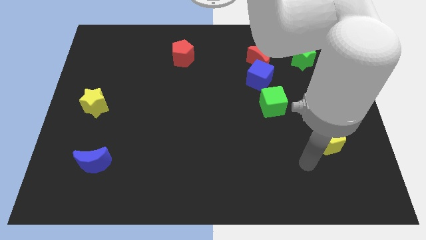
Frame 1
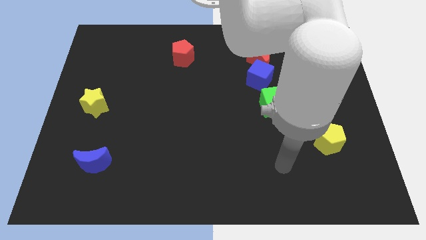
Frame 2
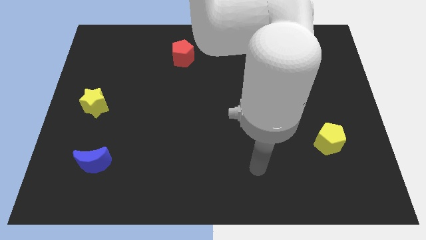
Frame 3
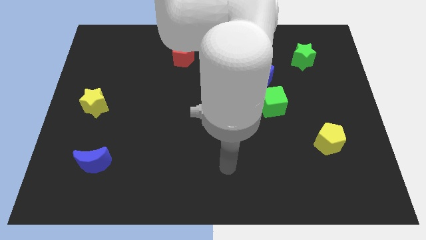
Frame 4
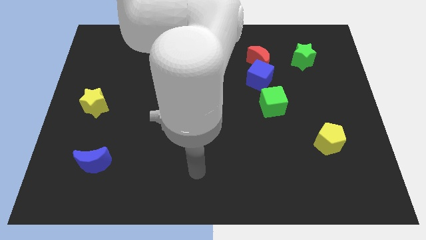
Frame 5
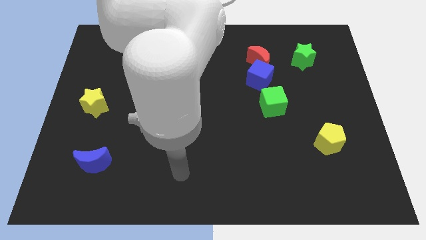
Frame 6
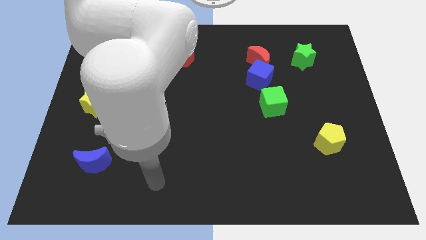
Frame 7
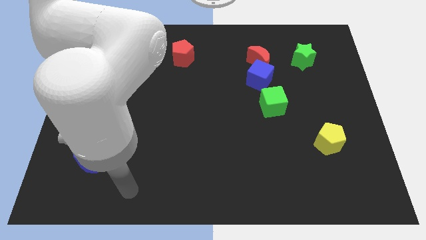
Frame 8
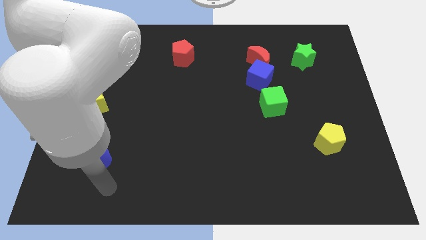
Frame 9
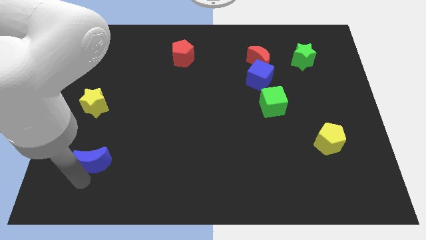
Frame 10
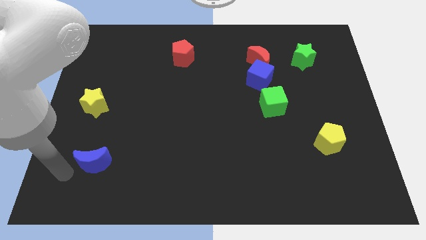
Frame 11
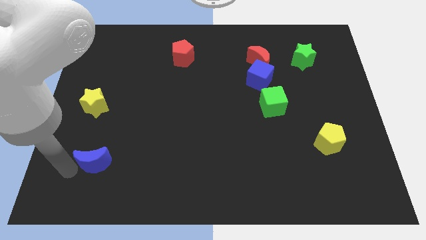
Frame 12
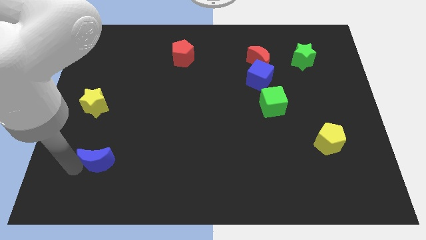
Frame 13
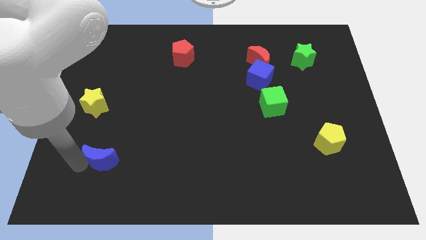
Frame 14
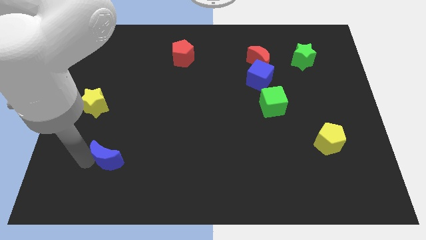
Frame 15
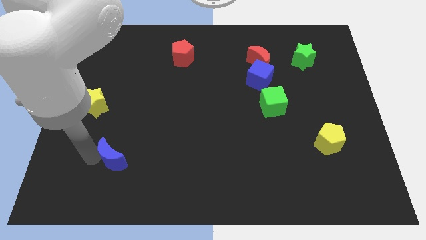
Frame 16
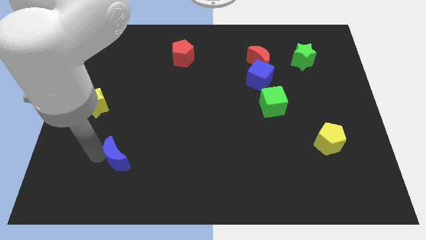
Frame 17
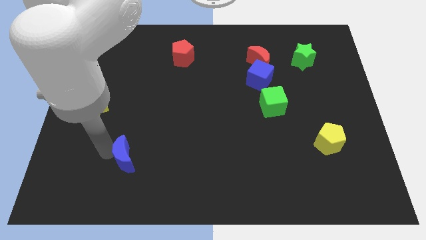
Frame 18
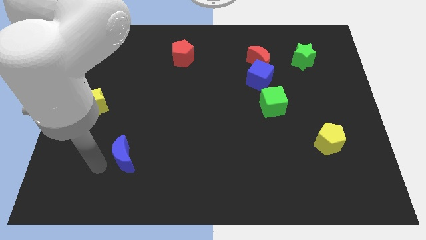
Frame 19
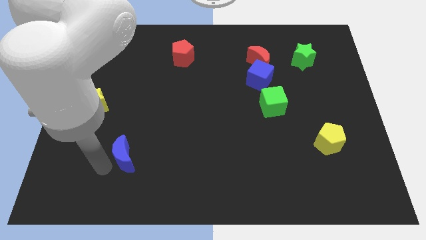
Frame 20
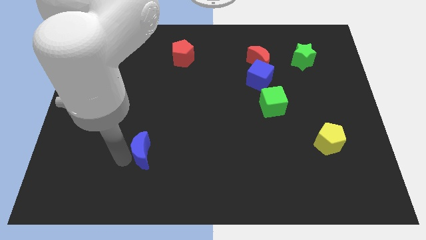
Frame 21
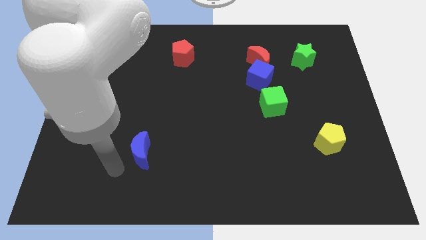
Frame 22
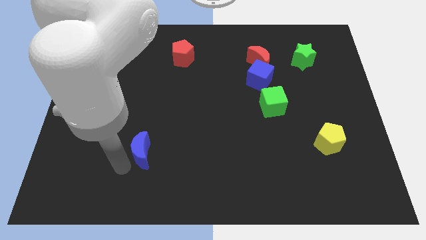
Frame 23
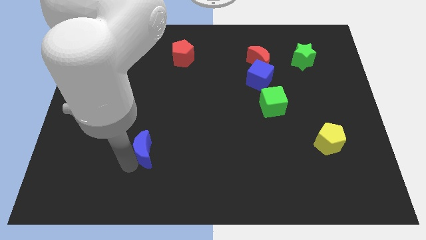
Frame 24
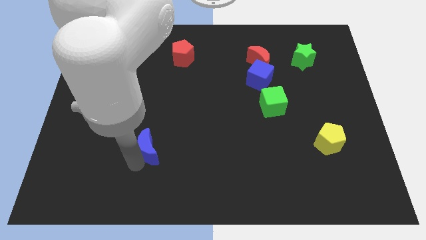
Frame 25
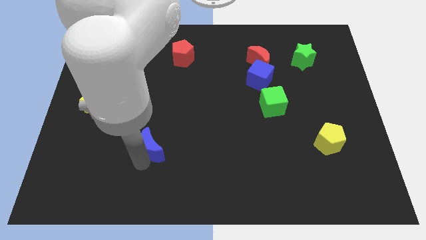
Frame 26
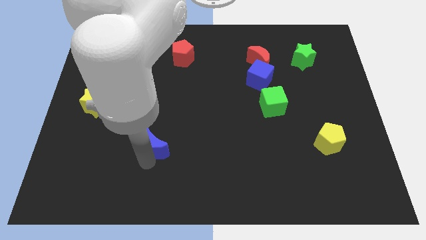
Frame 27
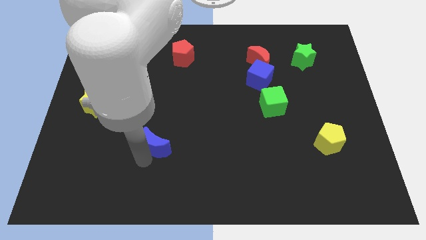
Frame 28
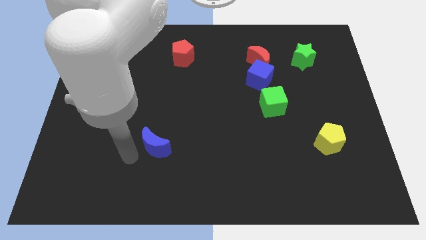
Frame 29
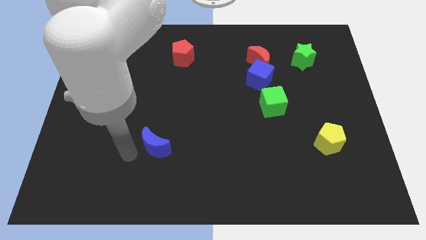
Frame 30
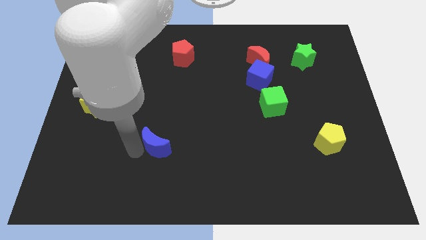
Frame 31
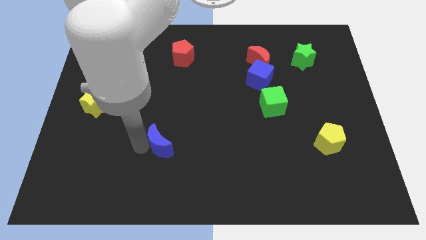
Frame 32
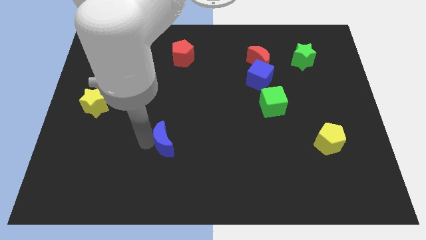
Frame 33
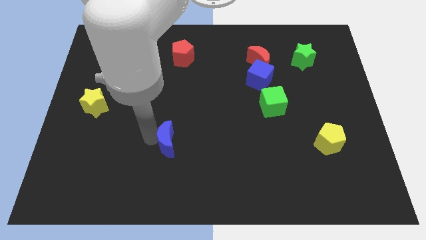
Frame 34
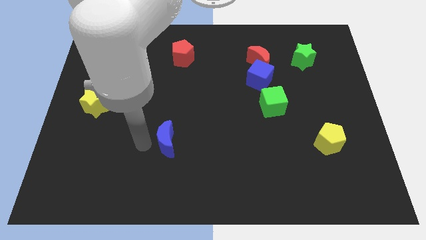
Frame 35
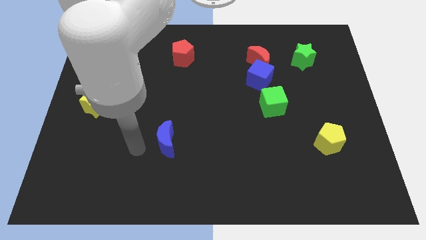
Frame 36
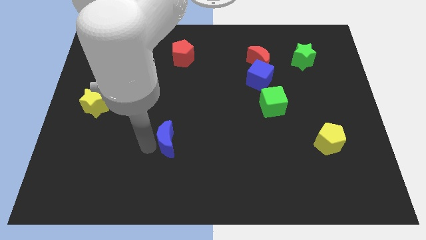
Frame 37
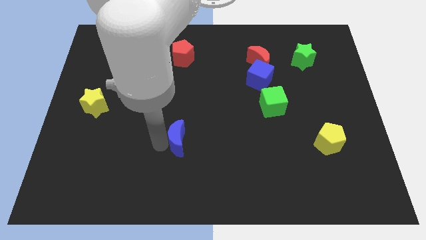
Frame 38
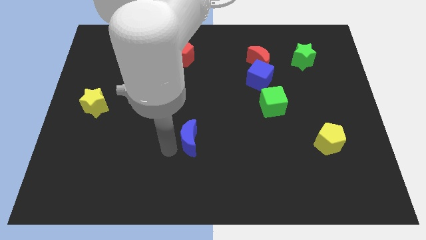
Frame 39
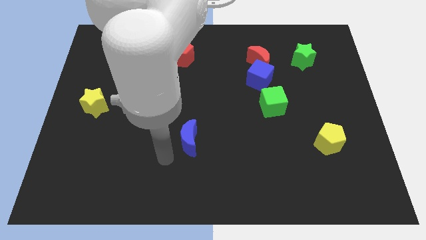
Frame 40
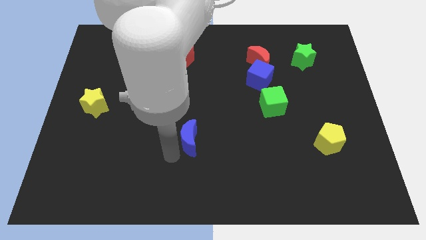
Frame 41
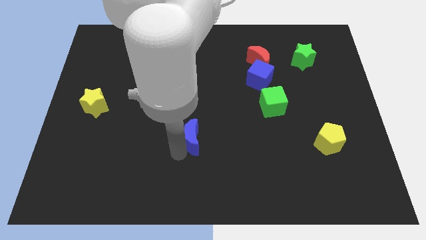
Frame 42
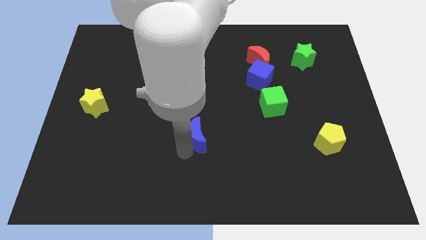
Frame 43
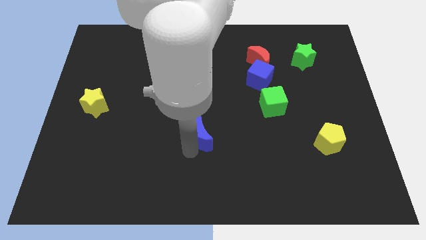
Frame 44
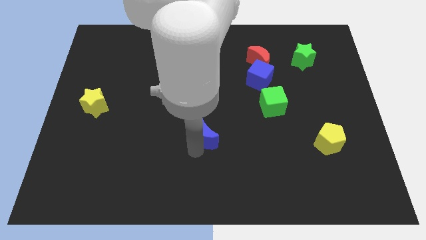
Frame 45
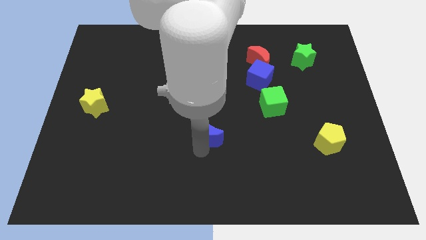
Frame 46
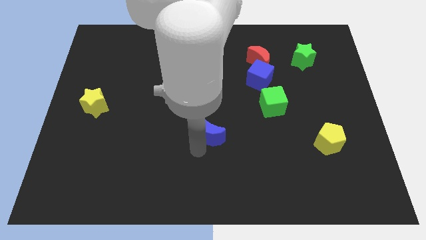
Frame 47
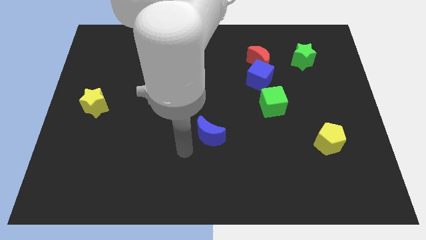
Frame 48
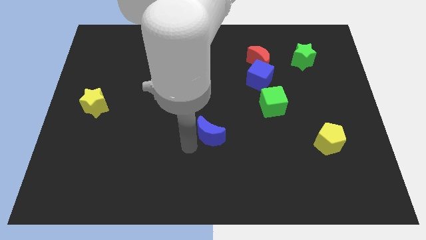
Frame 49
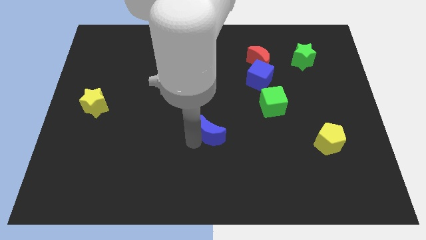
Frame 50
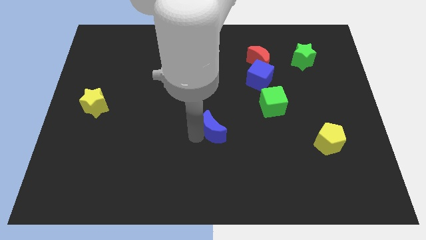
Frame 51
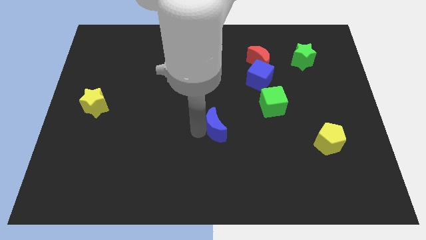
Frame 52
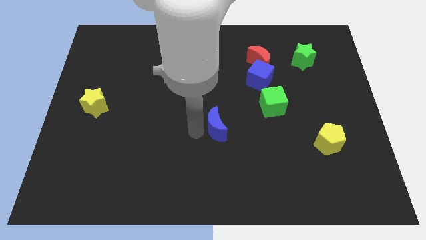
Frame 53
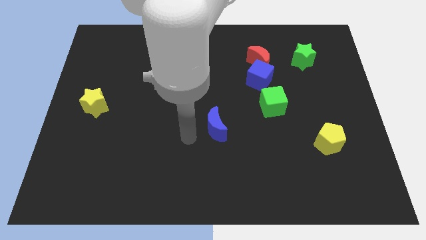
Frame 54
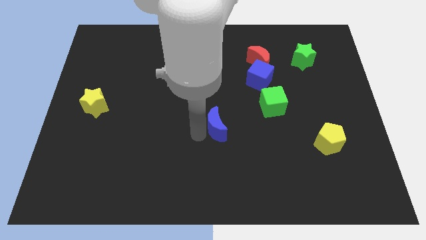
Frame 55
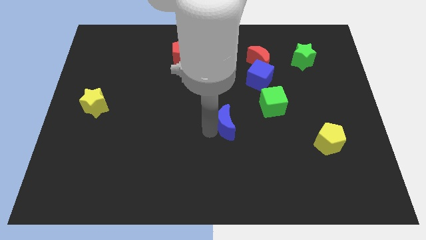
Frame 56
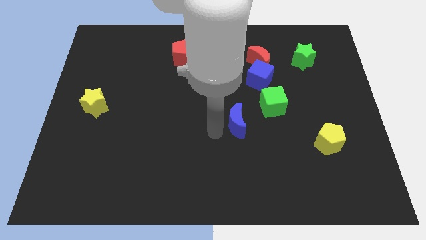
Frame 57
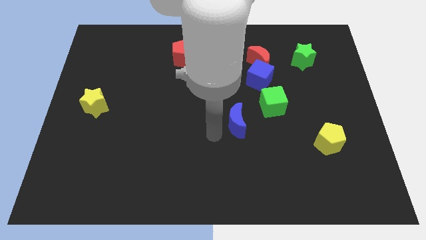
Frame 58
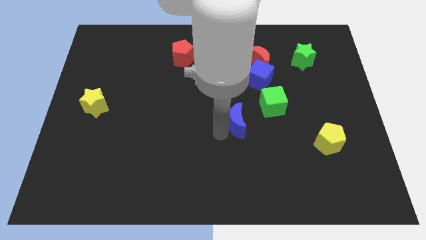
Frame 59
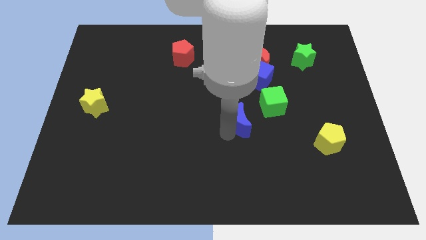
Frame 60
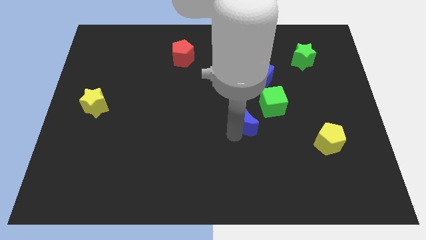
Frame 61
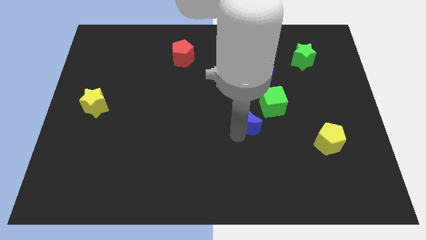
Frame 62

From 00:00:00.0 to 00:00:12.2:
move the blue moon to the bottom side of the blue cube

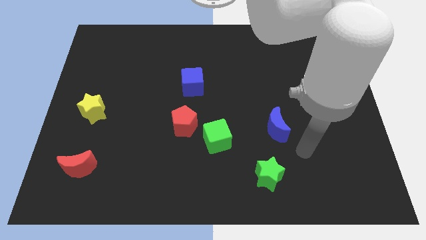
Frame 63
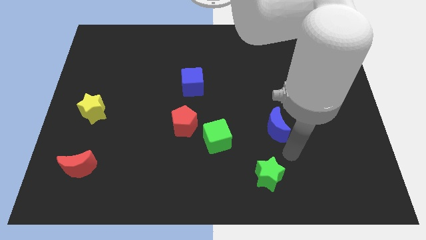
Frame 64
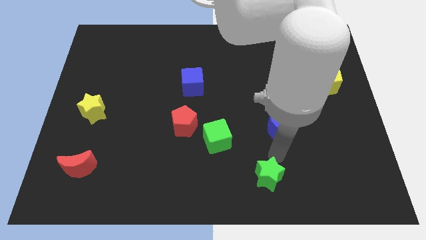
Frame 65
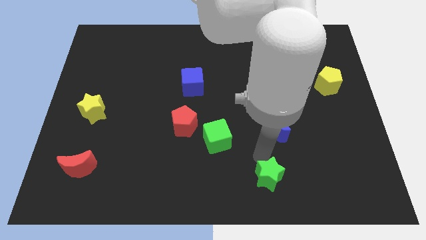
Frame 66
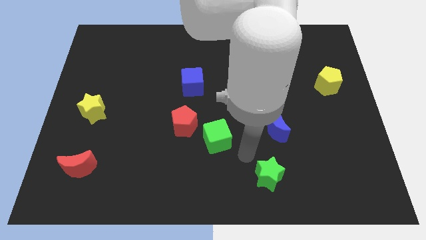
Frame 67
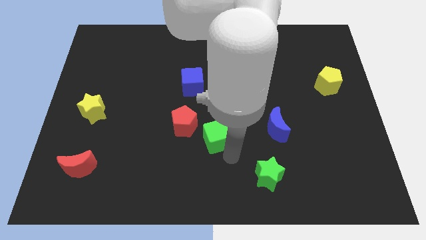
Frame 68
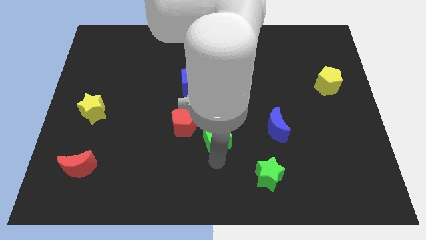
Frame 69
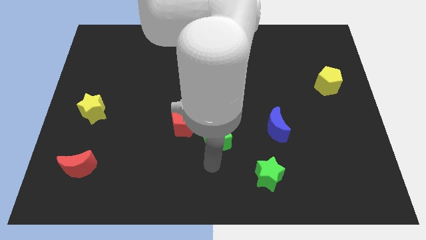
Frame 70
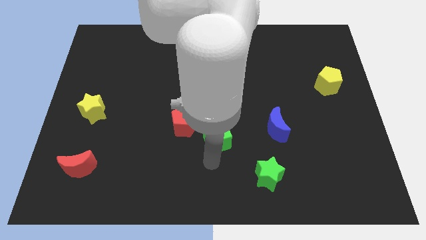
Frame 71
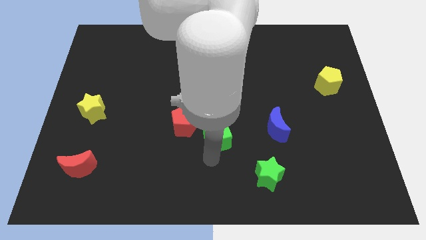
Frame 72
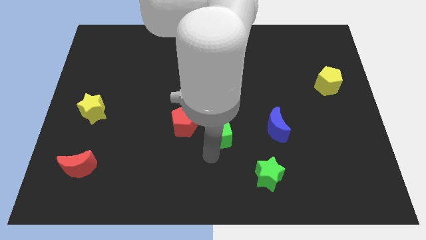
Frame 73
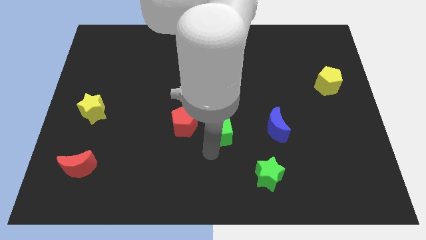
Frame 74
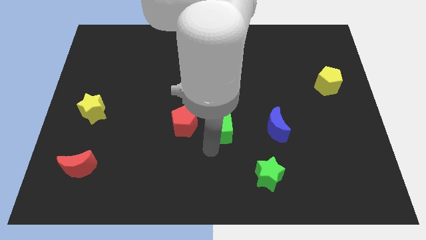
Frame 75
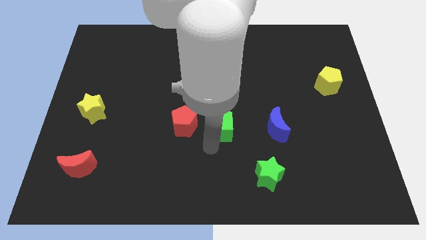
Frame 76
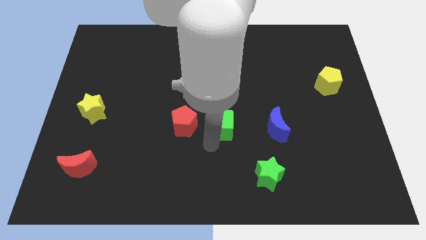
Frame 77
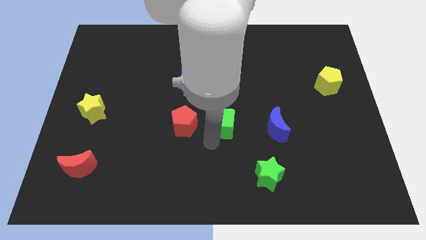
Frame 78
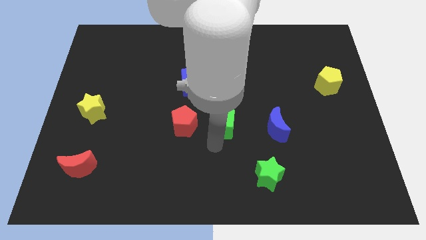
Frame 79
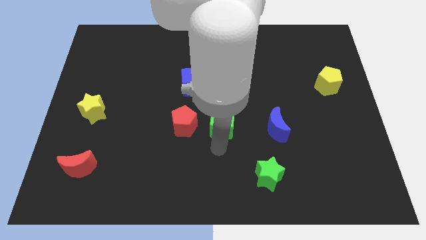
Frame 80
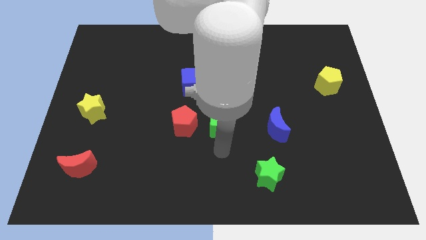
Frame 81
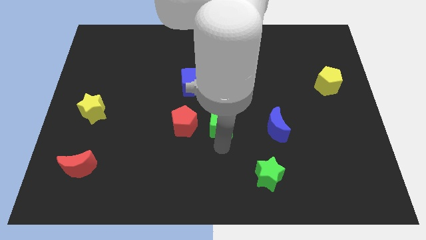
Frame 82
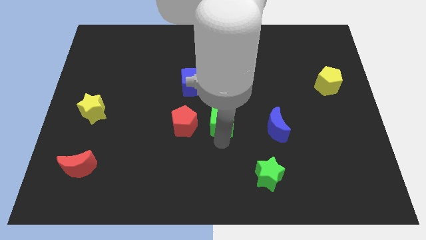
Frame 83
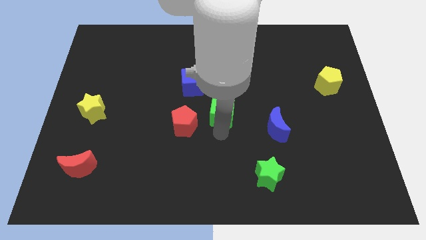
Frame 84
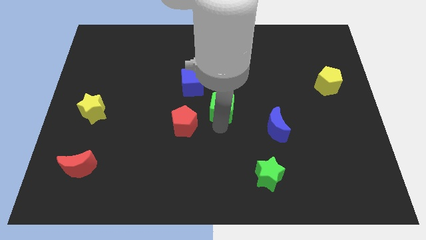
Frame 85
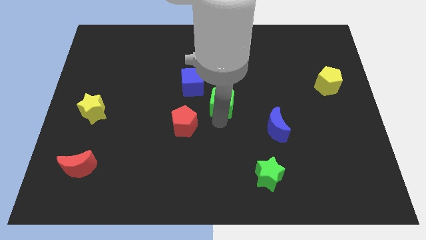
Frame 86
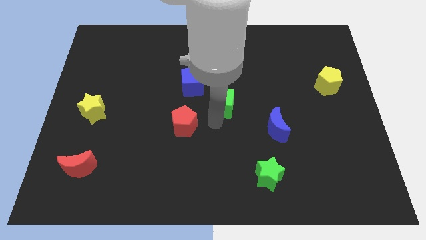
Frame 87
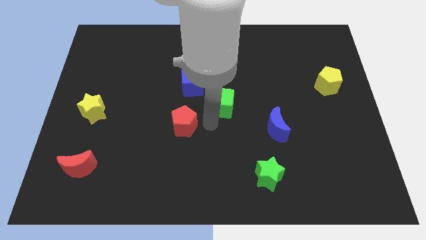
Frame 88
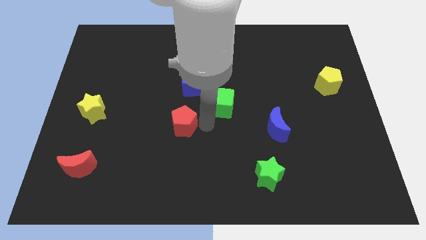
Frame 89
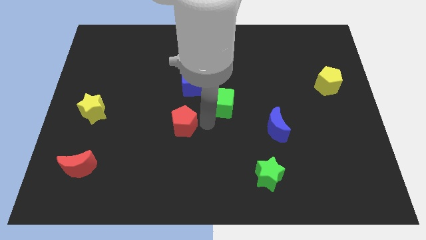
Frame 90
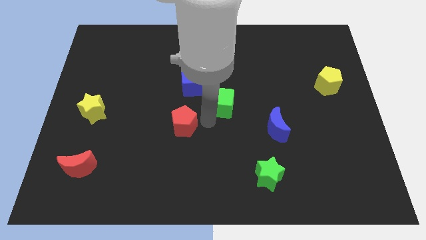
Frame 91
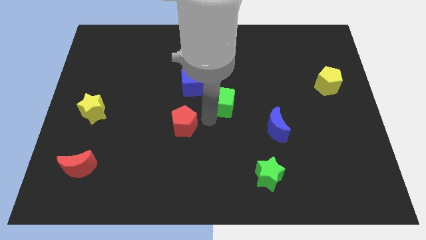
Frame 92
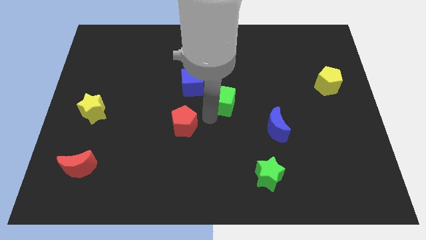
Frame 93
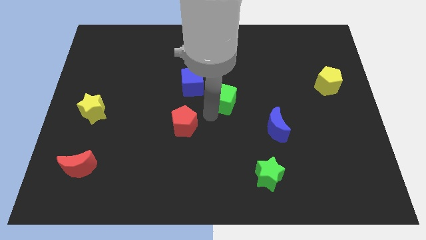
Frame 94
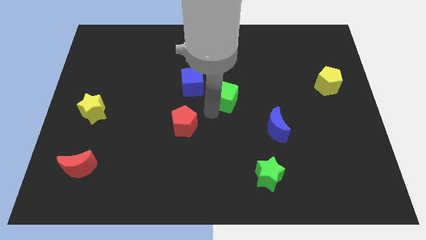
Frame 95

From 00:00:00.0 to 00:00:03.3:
push the green cube to the right side of the blue cube
